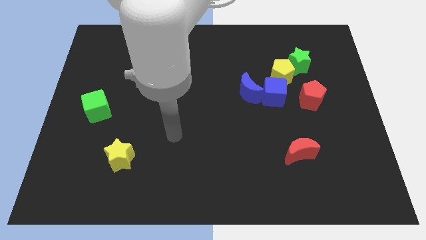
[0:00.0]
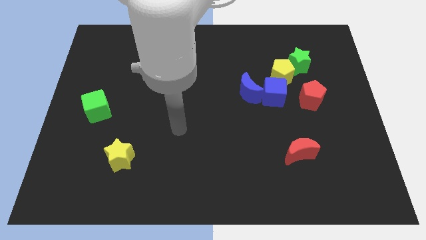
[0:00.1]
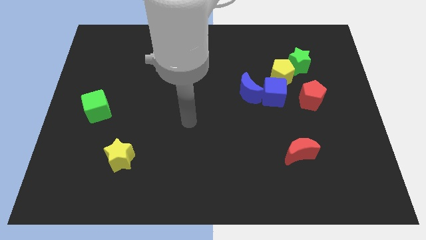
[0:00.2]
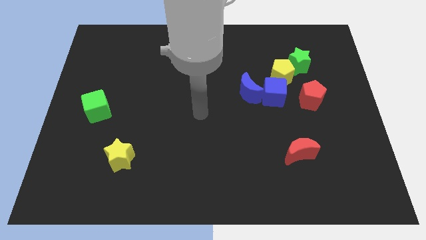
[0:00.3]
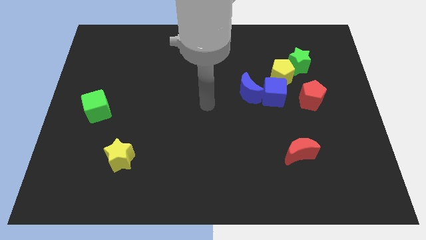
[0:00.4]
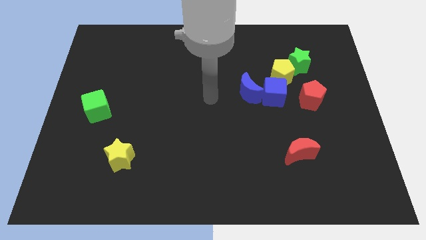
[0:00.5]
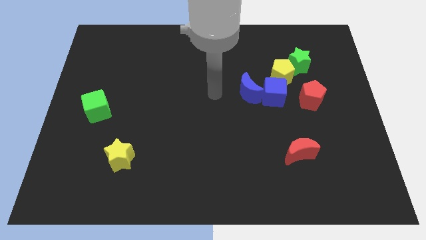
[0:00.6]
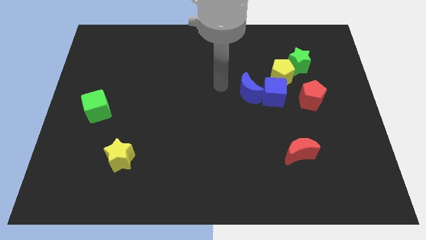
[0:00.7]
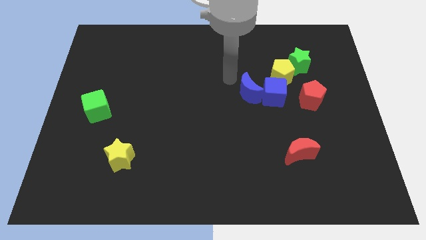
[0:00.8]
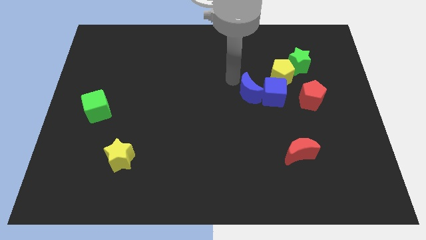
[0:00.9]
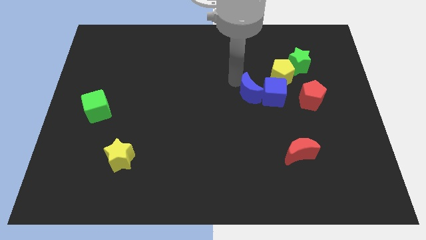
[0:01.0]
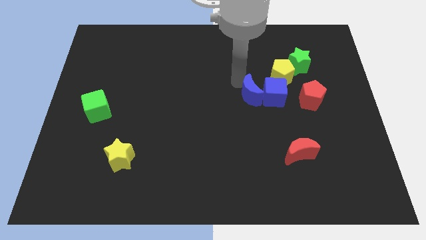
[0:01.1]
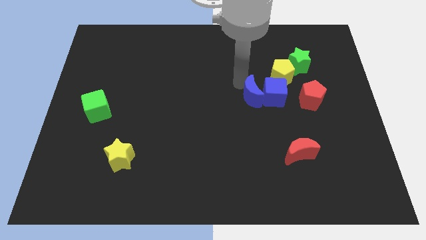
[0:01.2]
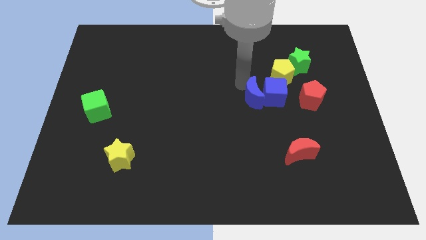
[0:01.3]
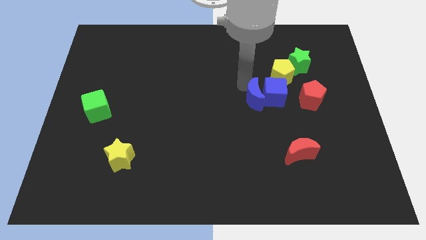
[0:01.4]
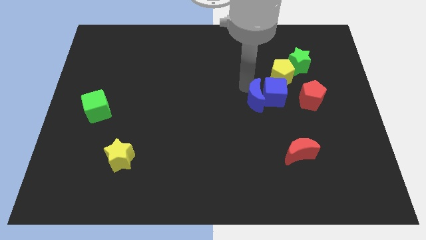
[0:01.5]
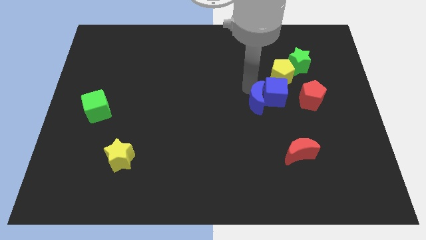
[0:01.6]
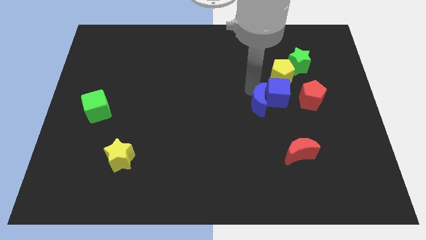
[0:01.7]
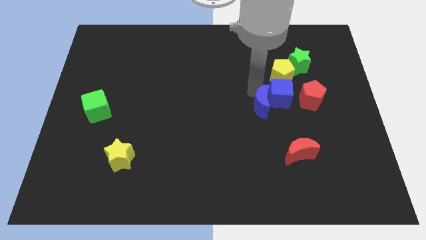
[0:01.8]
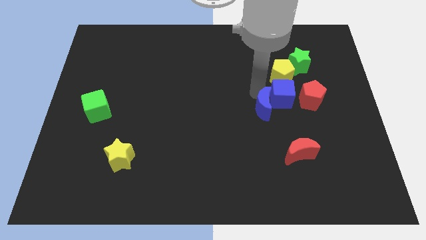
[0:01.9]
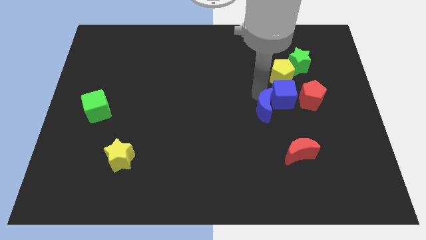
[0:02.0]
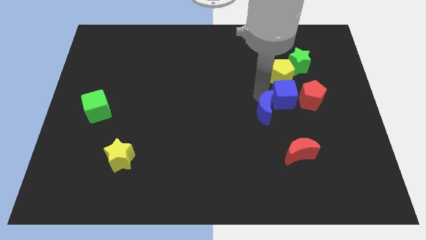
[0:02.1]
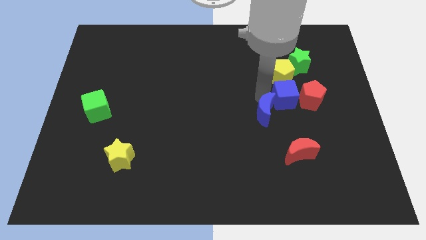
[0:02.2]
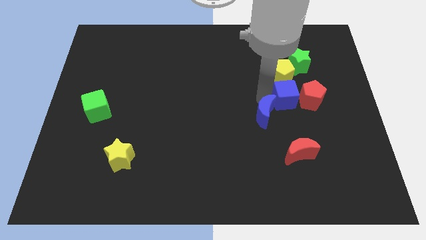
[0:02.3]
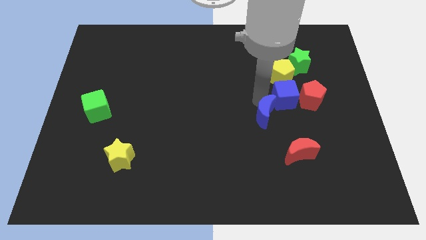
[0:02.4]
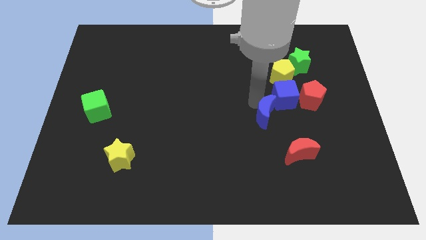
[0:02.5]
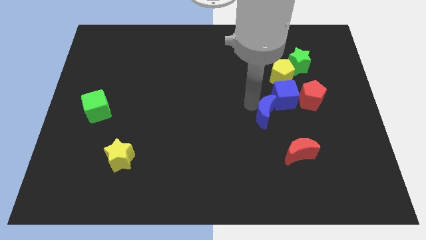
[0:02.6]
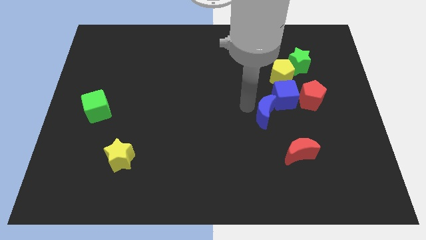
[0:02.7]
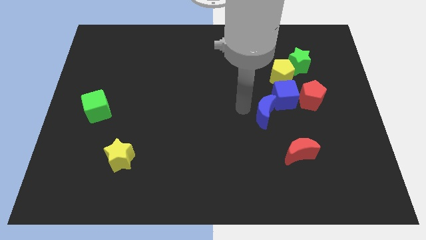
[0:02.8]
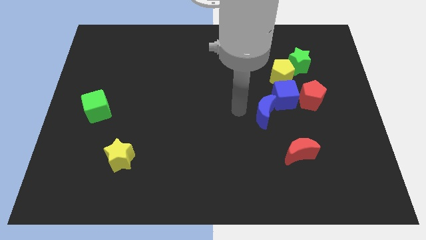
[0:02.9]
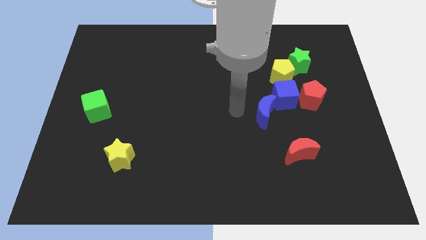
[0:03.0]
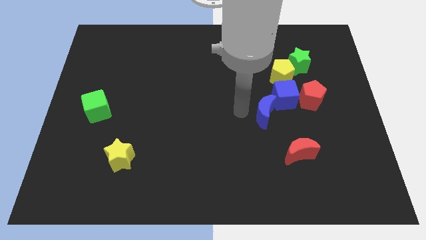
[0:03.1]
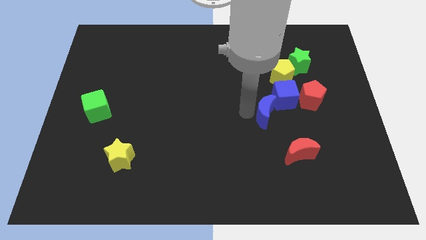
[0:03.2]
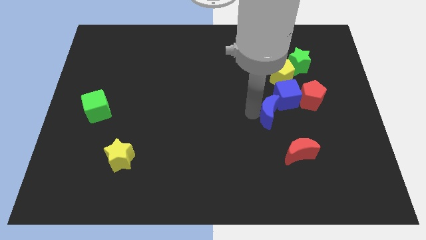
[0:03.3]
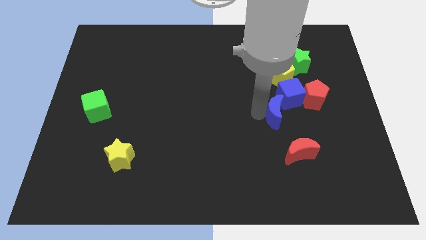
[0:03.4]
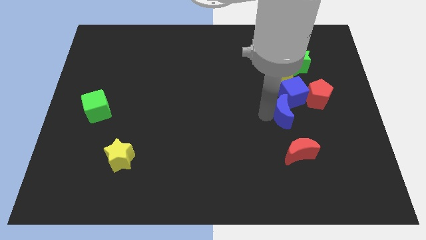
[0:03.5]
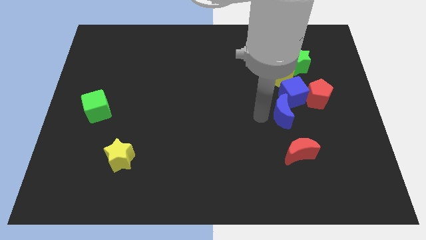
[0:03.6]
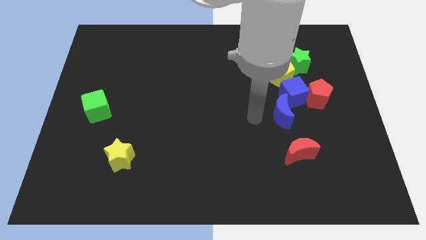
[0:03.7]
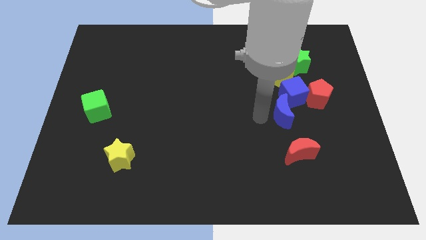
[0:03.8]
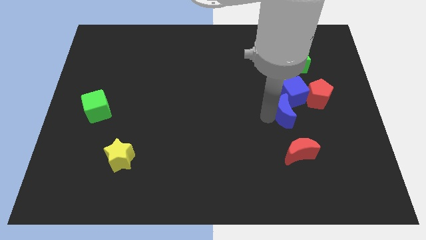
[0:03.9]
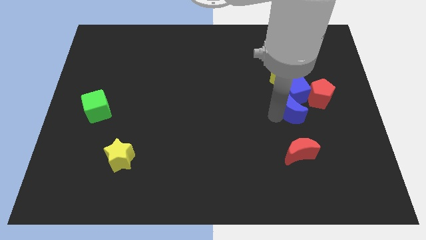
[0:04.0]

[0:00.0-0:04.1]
move the blue moon to the right a little

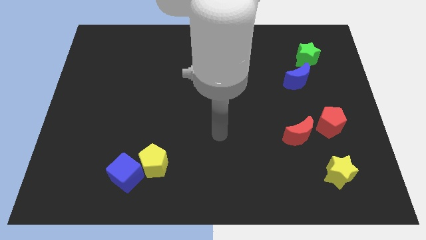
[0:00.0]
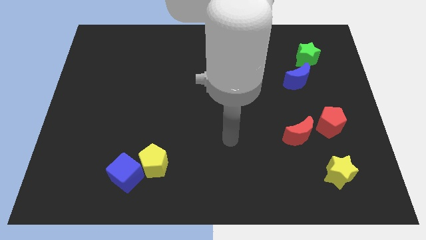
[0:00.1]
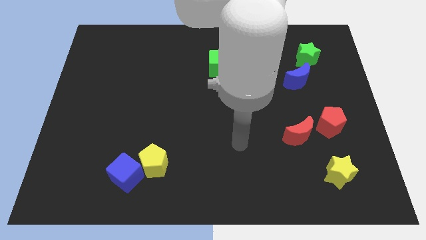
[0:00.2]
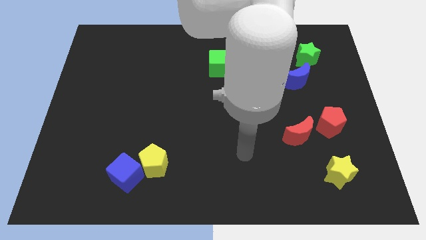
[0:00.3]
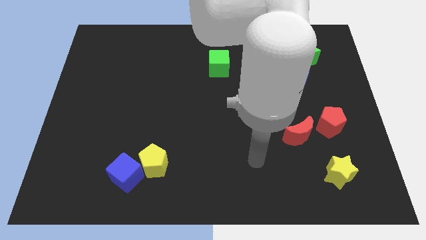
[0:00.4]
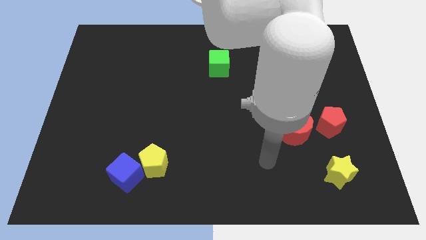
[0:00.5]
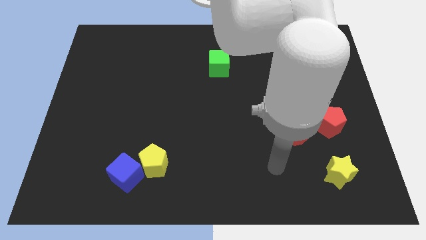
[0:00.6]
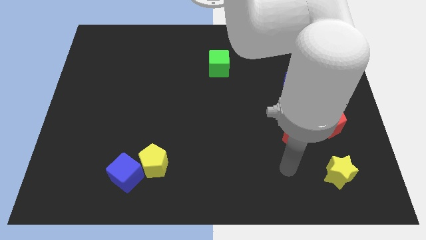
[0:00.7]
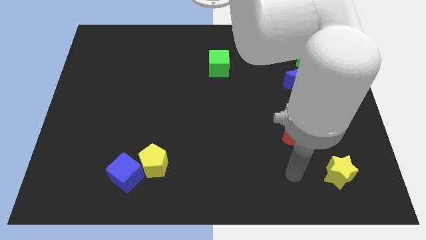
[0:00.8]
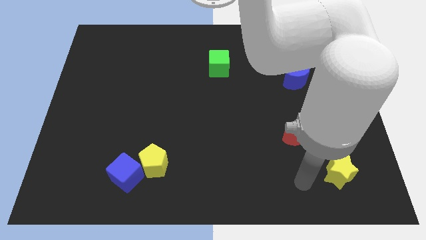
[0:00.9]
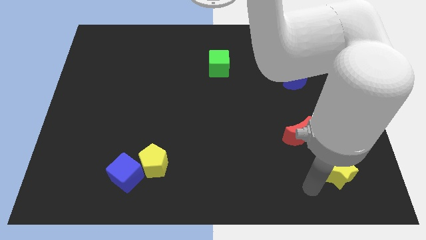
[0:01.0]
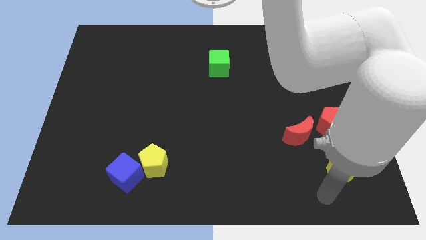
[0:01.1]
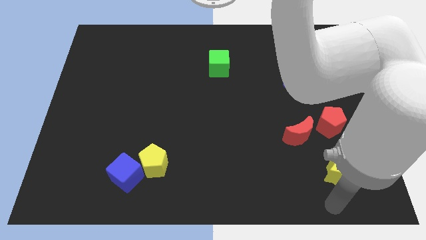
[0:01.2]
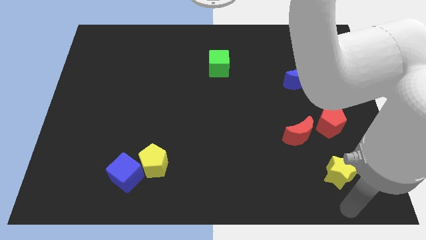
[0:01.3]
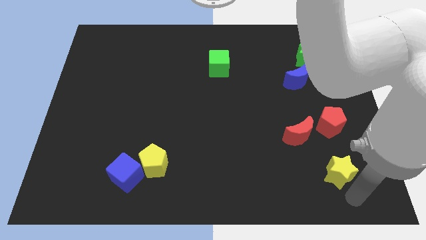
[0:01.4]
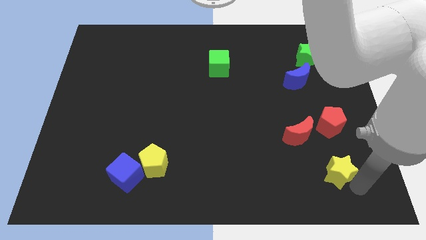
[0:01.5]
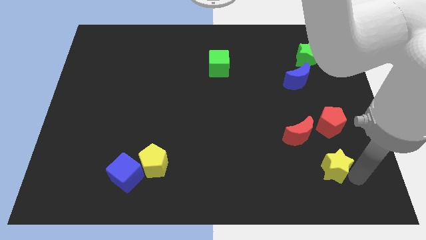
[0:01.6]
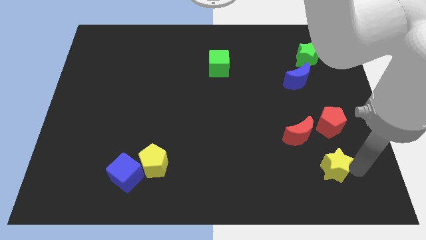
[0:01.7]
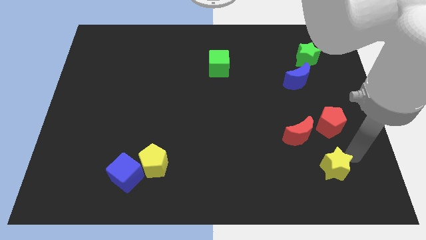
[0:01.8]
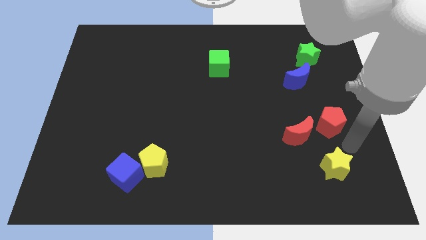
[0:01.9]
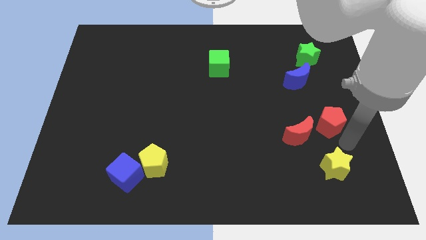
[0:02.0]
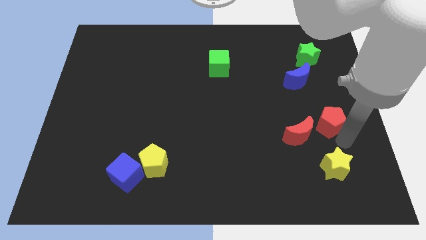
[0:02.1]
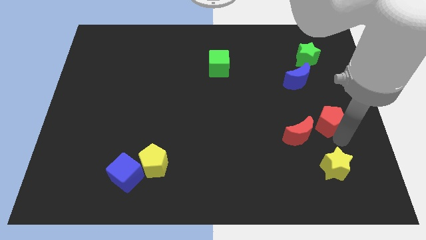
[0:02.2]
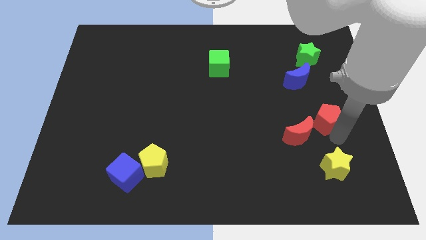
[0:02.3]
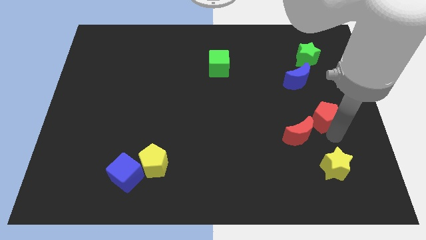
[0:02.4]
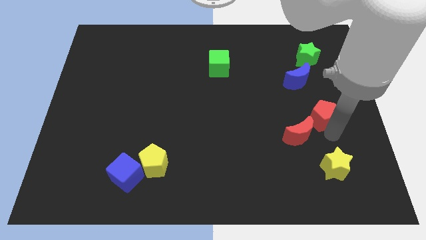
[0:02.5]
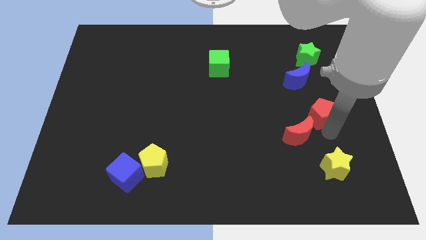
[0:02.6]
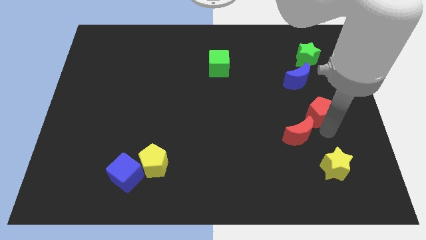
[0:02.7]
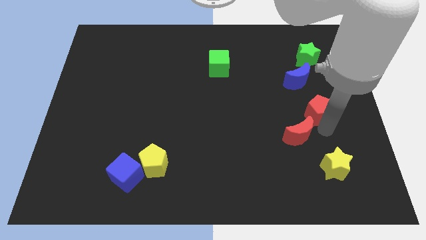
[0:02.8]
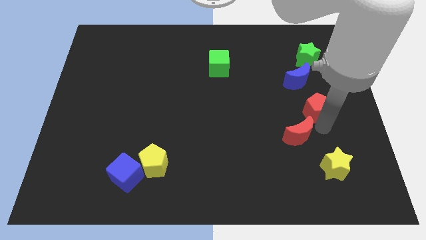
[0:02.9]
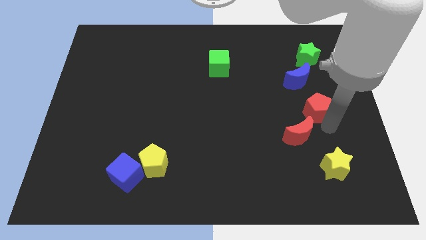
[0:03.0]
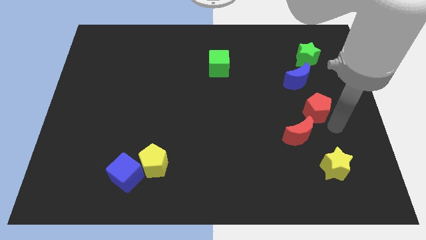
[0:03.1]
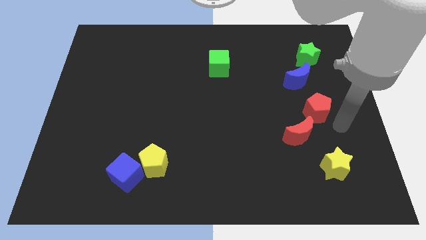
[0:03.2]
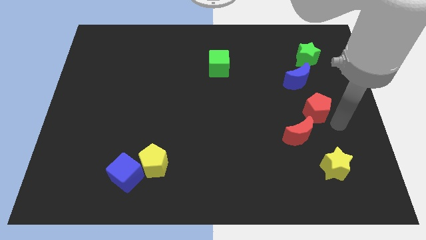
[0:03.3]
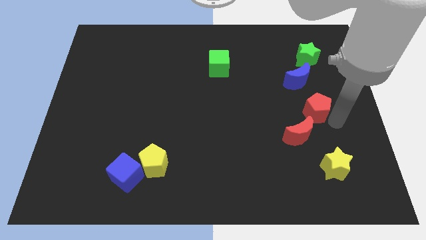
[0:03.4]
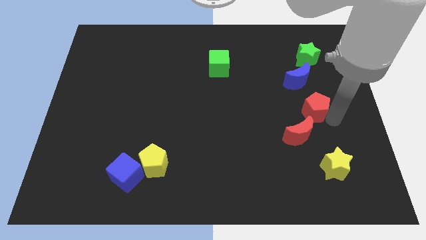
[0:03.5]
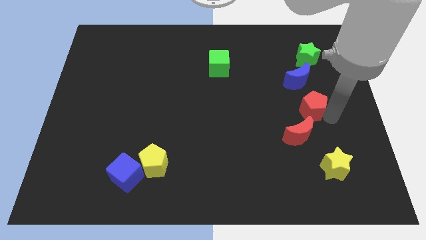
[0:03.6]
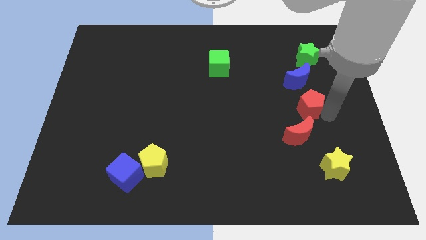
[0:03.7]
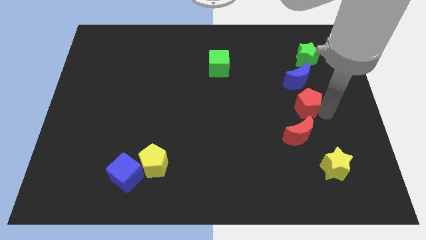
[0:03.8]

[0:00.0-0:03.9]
move the red pentagon somewhat upwards and left

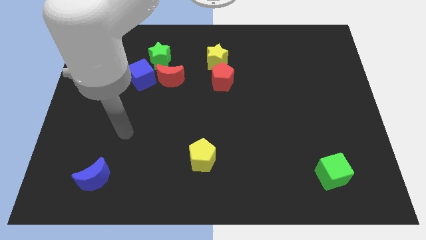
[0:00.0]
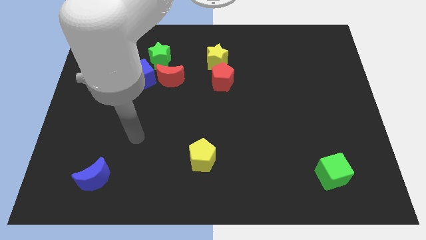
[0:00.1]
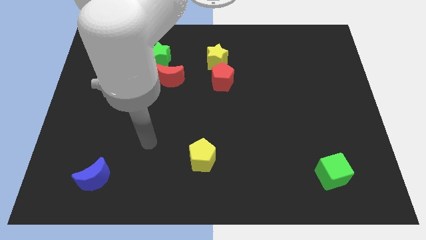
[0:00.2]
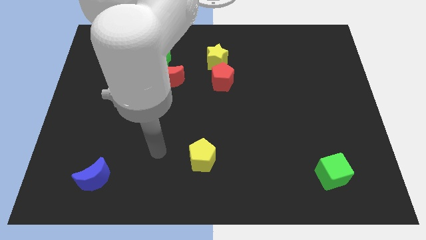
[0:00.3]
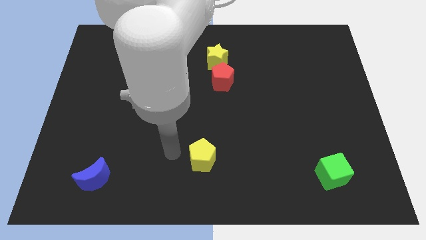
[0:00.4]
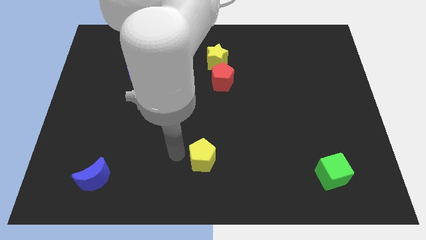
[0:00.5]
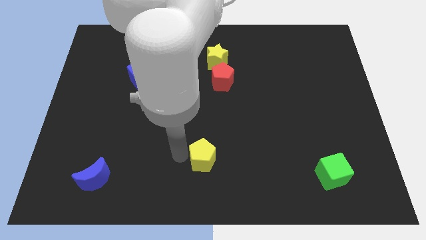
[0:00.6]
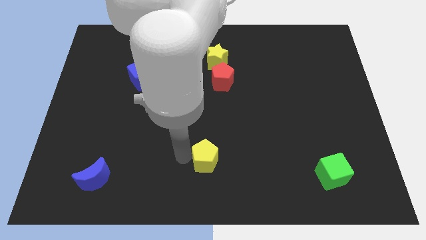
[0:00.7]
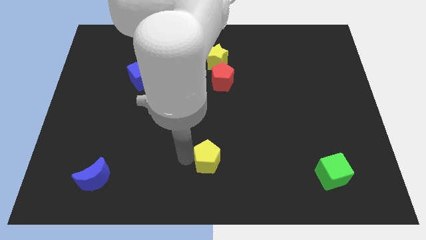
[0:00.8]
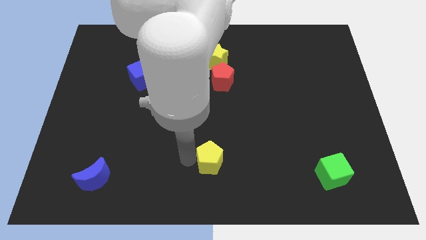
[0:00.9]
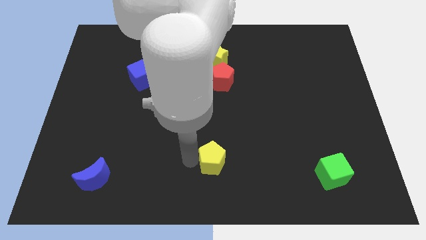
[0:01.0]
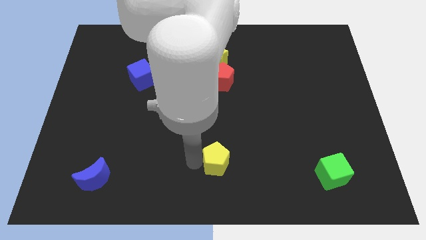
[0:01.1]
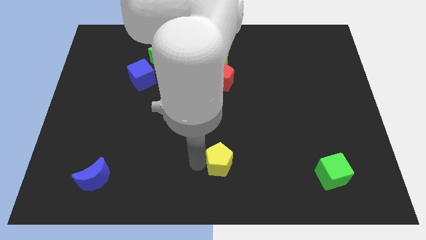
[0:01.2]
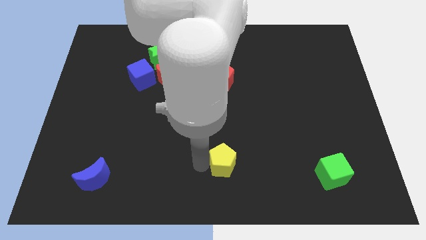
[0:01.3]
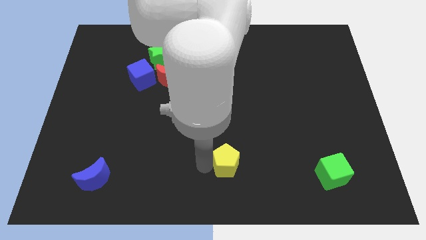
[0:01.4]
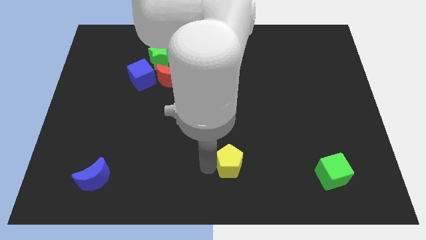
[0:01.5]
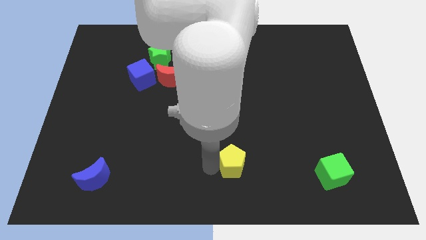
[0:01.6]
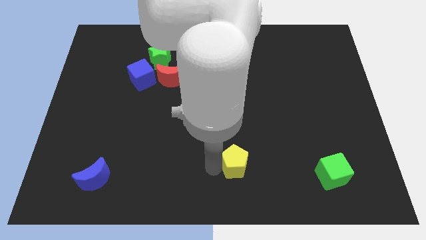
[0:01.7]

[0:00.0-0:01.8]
slightly slide the yellow pentagon to the right
